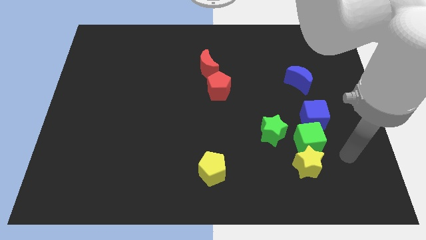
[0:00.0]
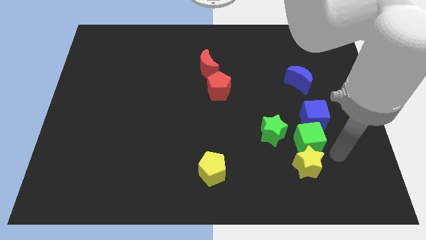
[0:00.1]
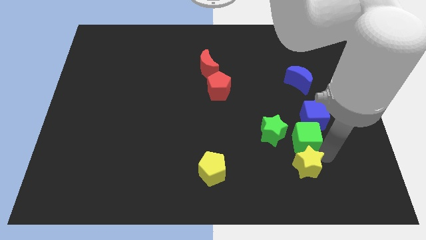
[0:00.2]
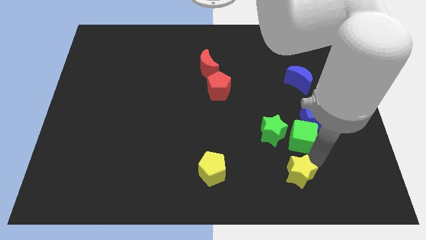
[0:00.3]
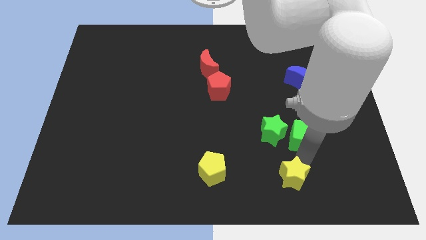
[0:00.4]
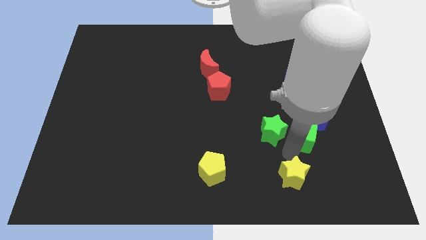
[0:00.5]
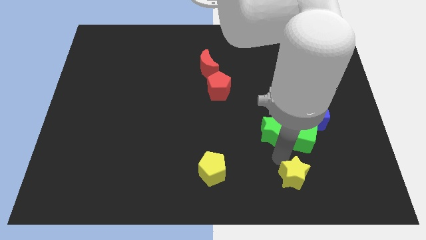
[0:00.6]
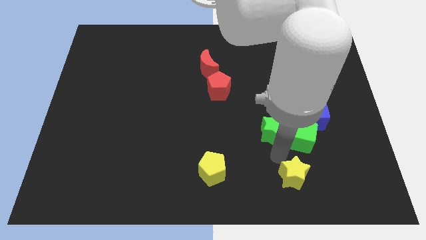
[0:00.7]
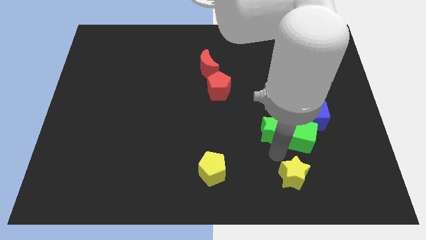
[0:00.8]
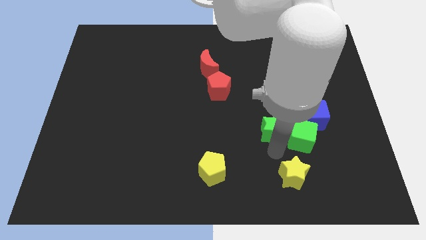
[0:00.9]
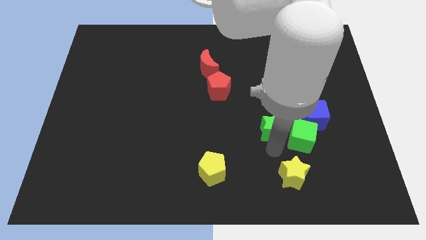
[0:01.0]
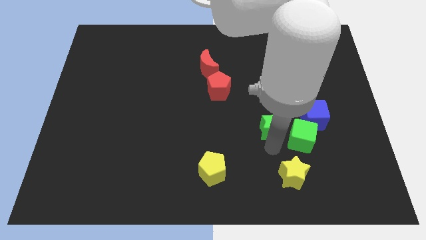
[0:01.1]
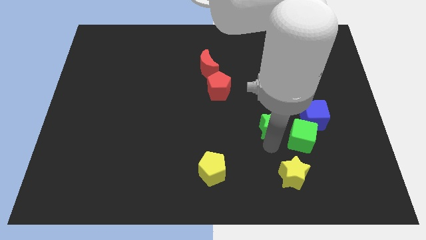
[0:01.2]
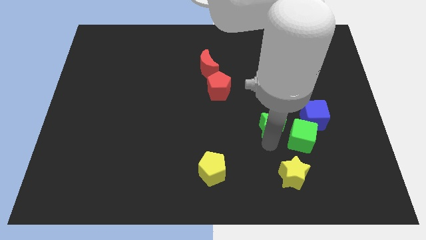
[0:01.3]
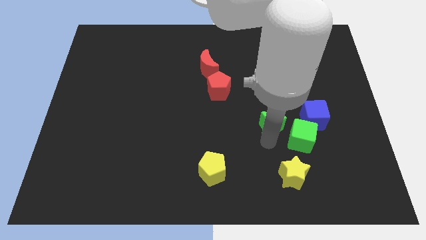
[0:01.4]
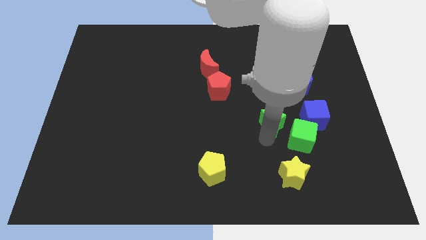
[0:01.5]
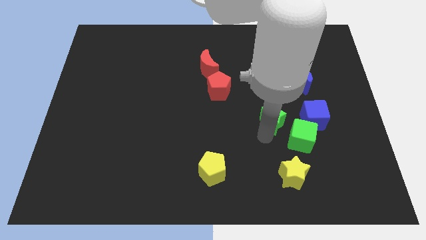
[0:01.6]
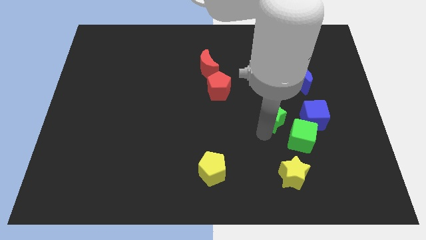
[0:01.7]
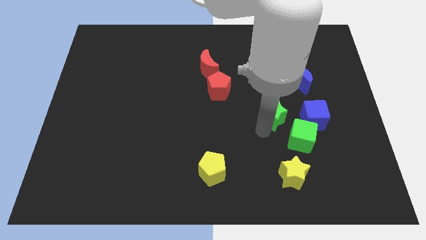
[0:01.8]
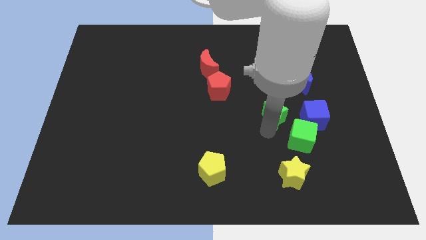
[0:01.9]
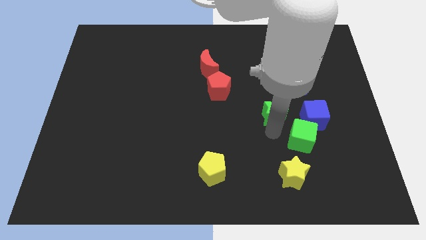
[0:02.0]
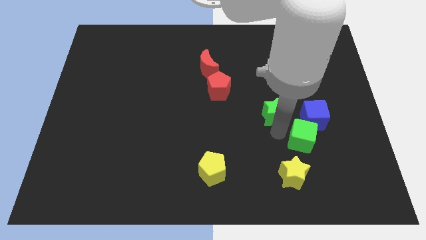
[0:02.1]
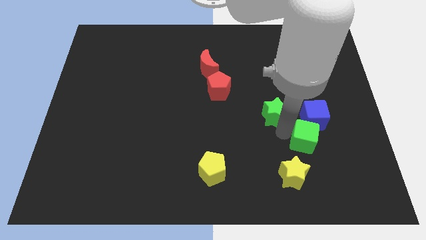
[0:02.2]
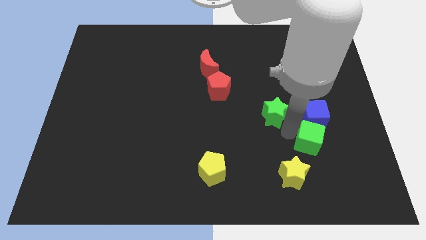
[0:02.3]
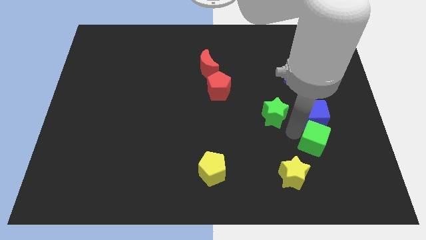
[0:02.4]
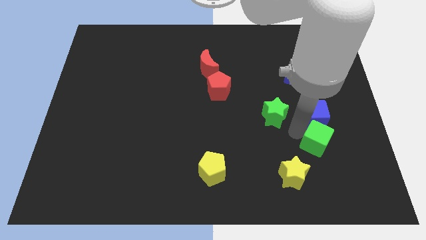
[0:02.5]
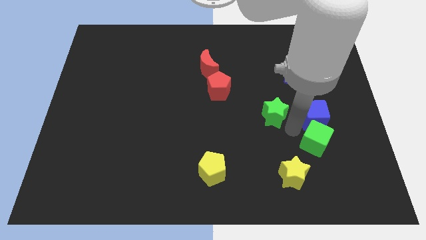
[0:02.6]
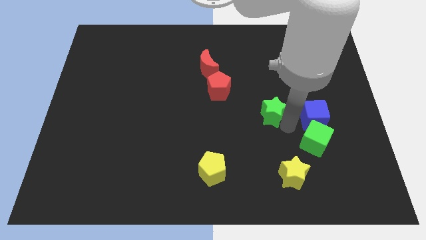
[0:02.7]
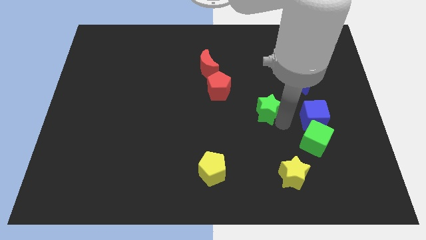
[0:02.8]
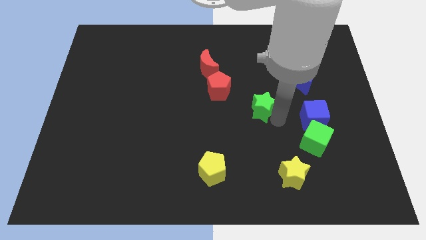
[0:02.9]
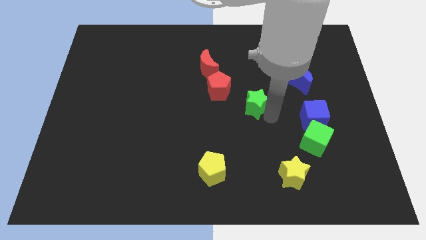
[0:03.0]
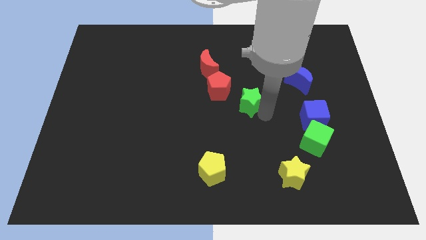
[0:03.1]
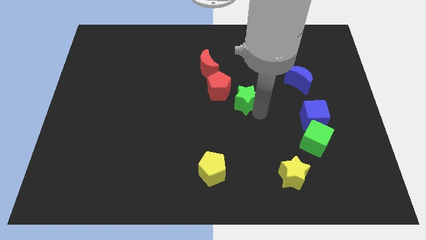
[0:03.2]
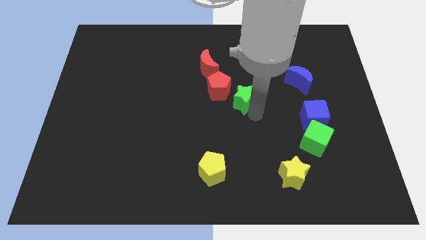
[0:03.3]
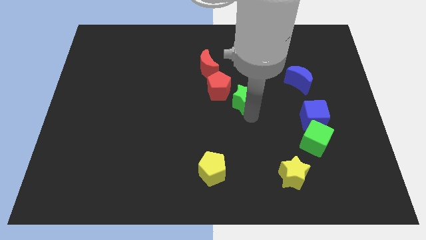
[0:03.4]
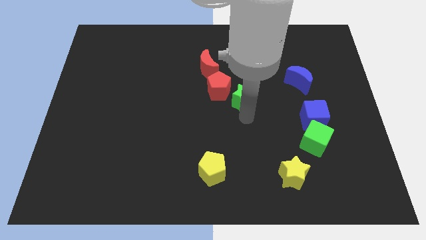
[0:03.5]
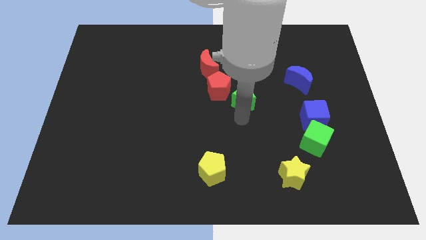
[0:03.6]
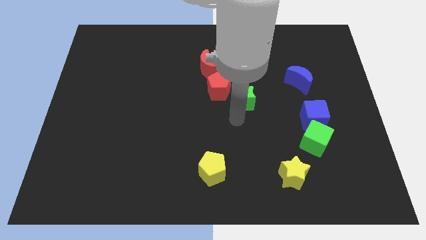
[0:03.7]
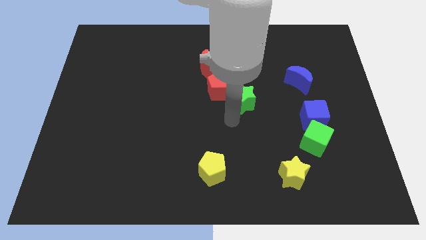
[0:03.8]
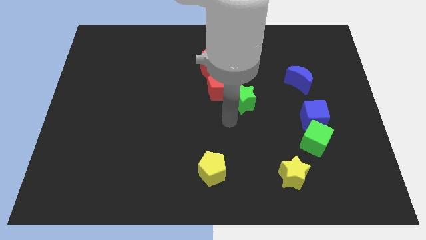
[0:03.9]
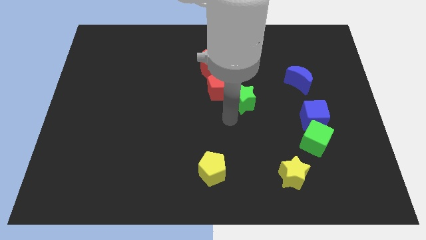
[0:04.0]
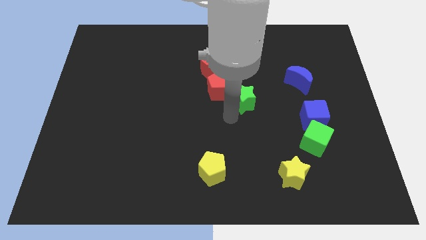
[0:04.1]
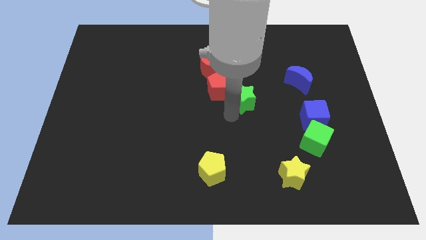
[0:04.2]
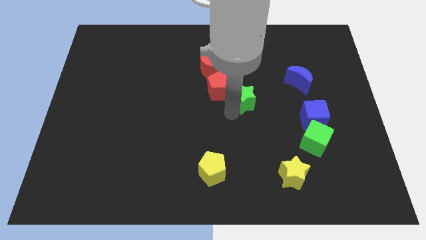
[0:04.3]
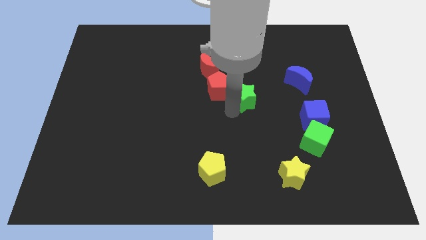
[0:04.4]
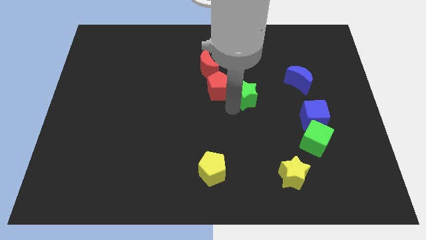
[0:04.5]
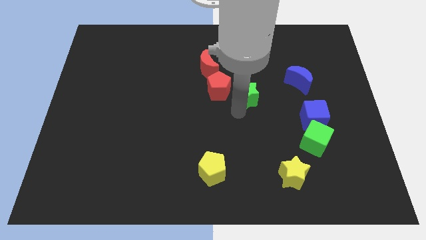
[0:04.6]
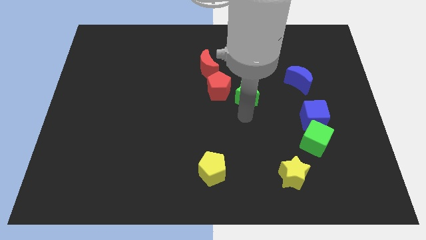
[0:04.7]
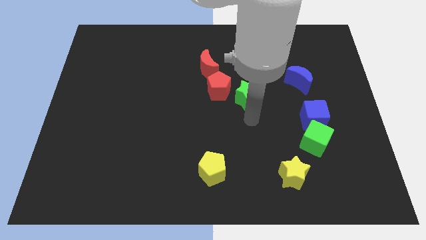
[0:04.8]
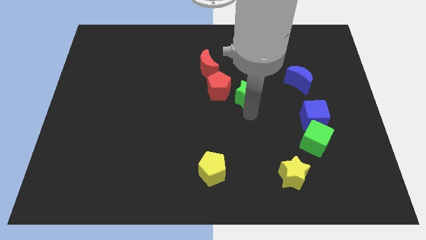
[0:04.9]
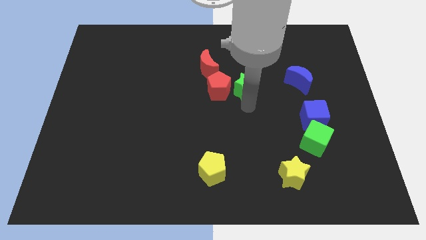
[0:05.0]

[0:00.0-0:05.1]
push the green star to the top right of the red pentagon

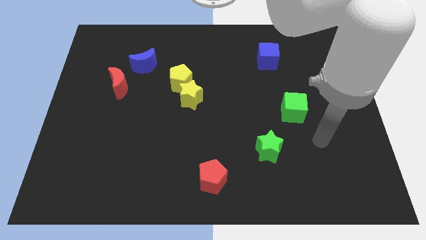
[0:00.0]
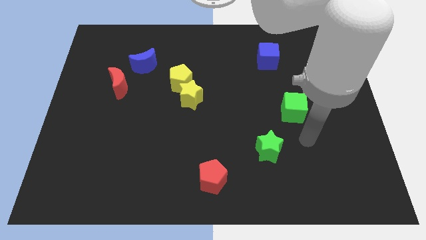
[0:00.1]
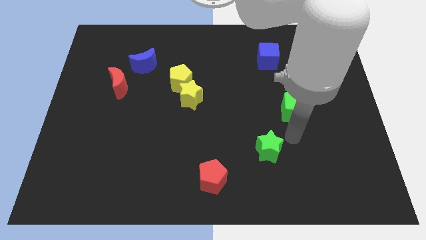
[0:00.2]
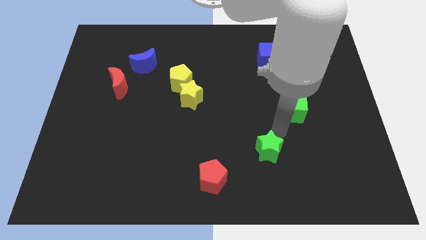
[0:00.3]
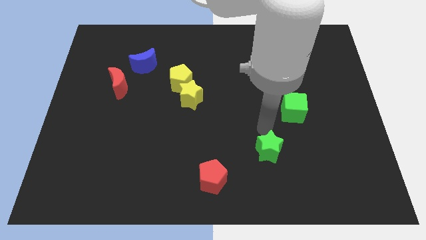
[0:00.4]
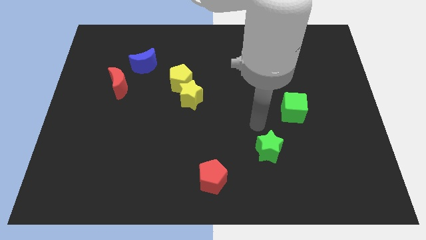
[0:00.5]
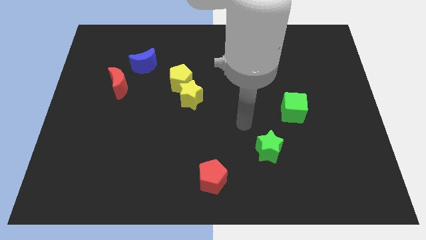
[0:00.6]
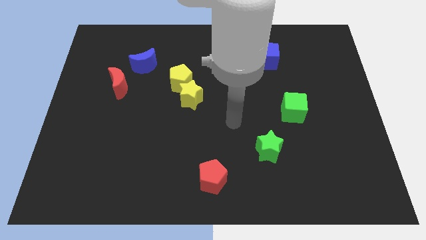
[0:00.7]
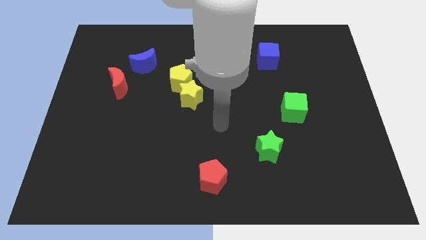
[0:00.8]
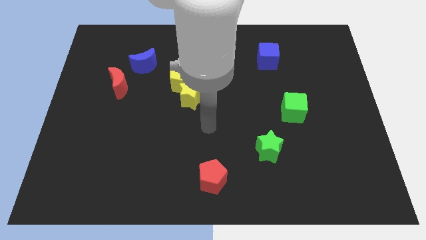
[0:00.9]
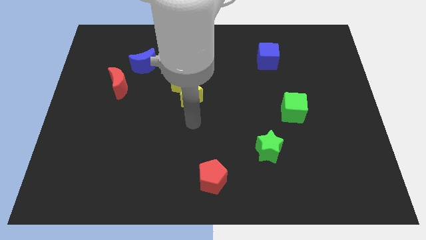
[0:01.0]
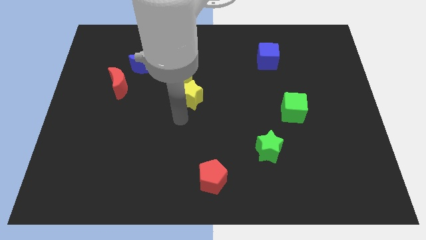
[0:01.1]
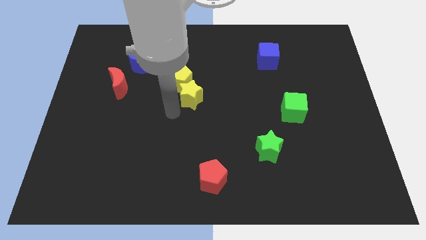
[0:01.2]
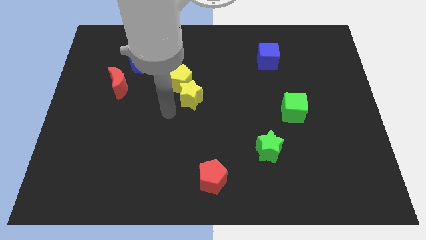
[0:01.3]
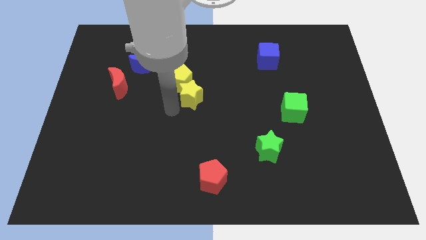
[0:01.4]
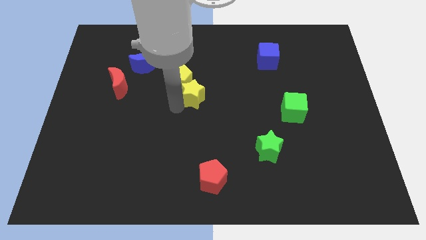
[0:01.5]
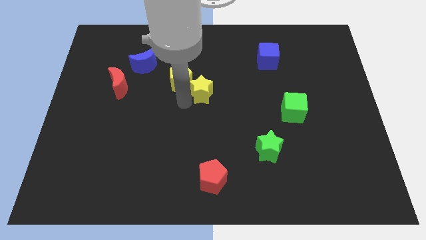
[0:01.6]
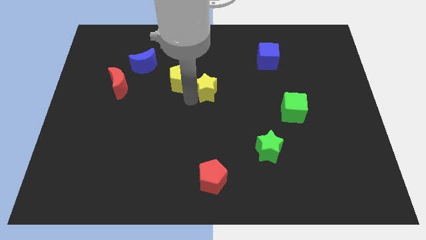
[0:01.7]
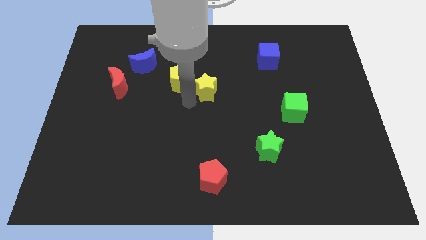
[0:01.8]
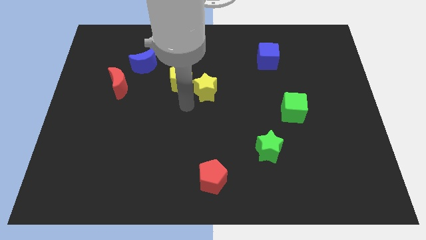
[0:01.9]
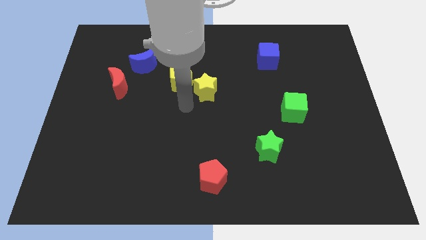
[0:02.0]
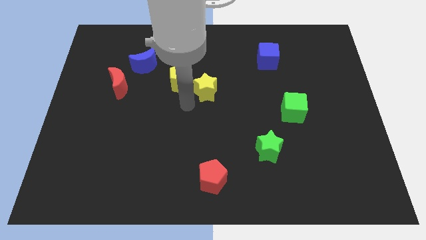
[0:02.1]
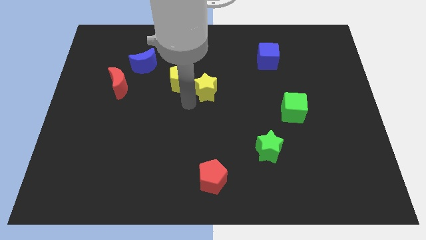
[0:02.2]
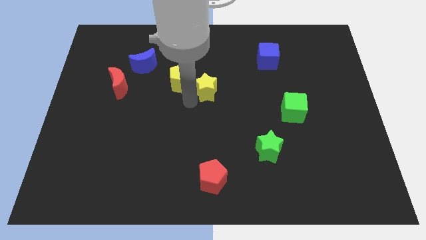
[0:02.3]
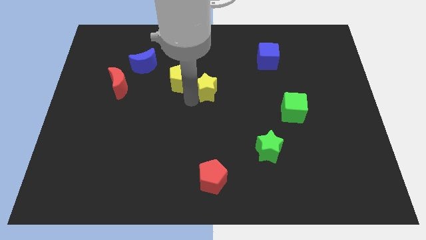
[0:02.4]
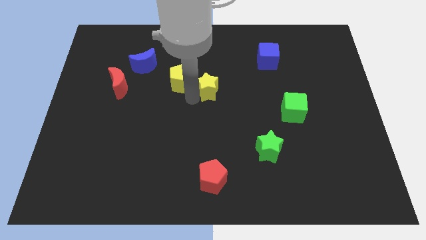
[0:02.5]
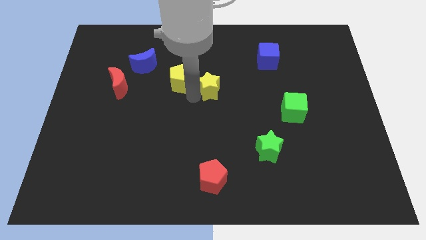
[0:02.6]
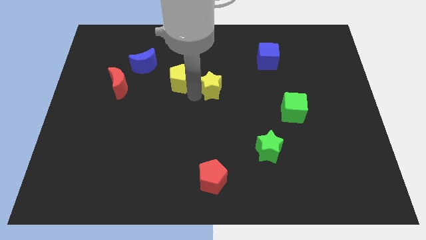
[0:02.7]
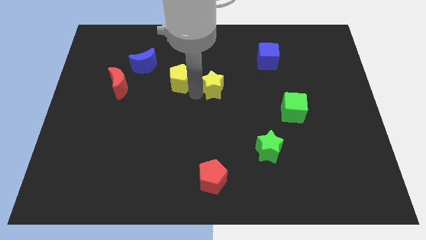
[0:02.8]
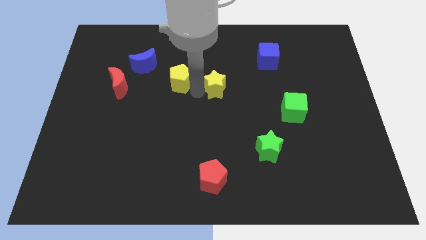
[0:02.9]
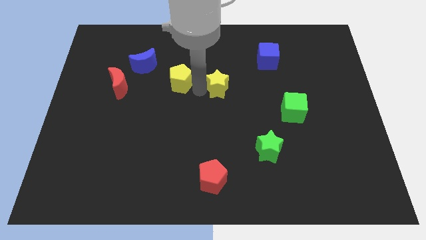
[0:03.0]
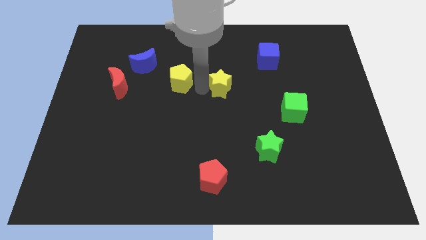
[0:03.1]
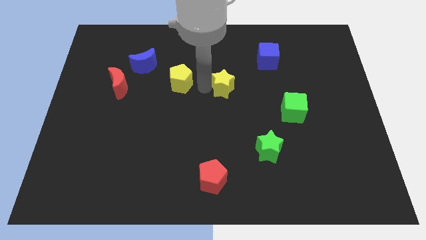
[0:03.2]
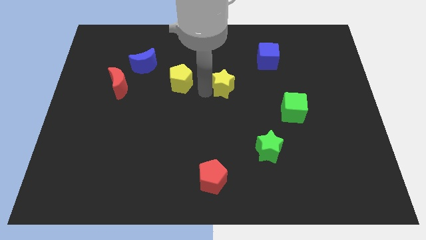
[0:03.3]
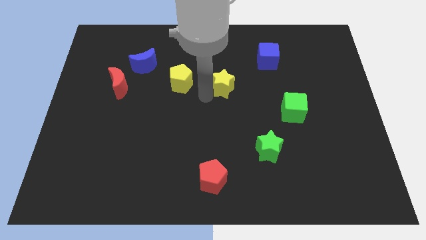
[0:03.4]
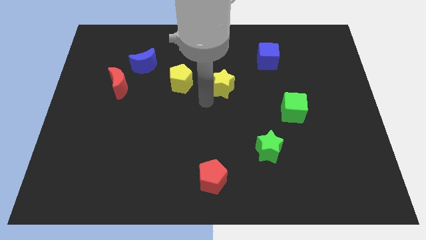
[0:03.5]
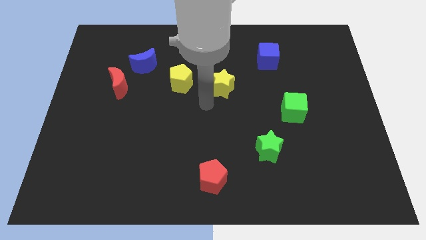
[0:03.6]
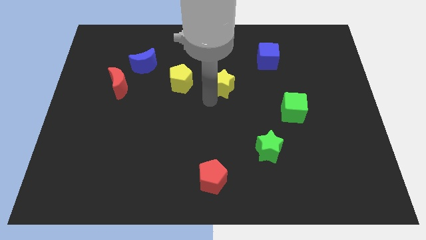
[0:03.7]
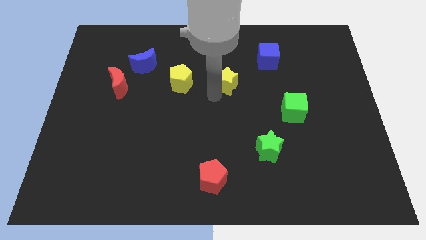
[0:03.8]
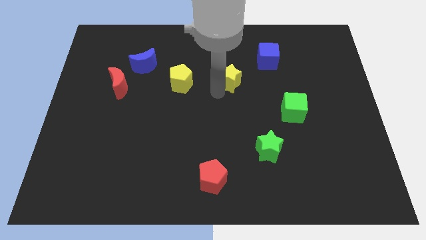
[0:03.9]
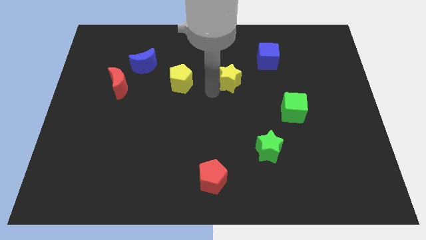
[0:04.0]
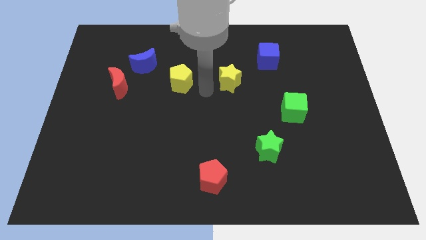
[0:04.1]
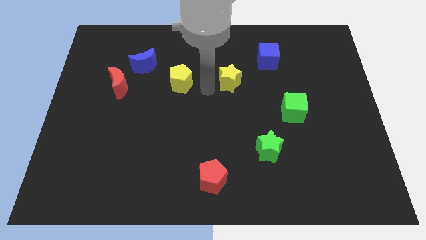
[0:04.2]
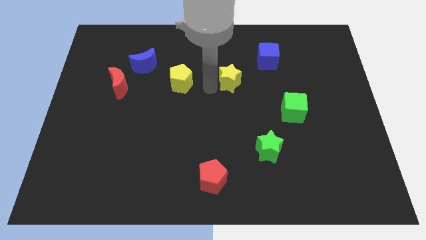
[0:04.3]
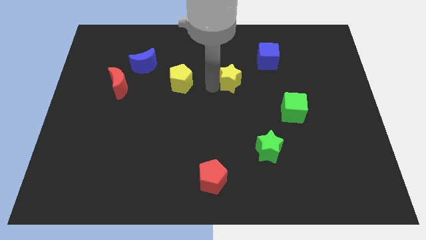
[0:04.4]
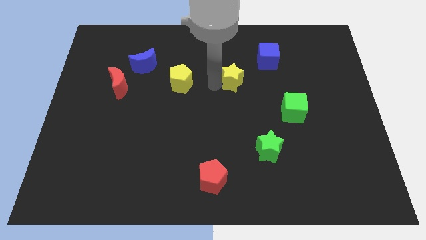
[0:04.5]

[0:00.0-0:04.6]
move the yellow star to the bottom left of the blue cube
